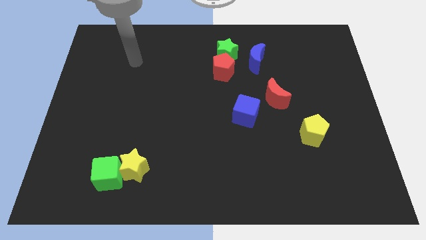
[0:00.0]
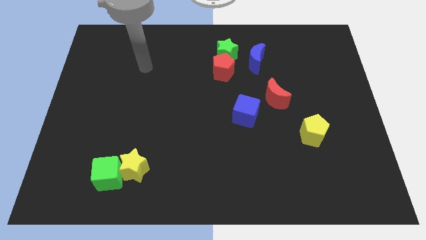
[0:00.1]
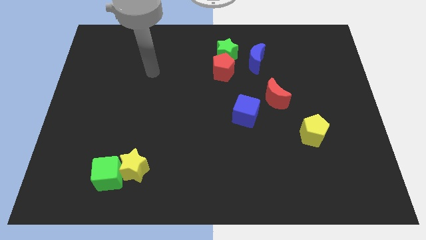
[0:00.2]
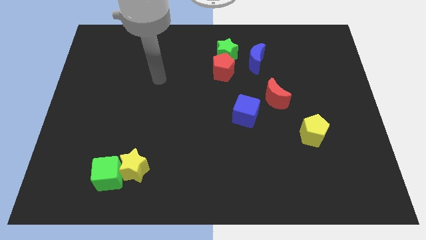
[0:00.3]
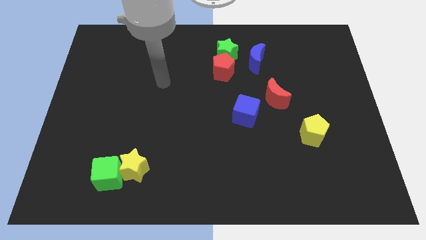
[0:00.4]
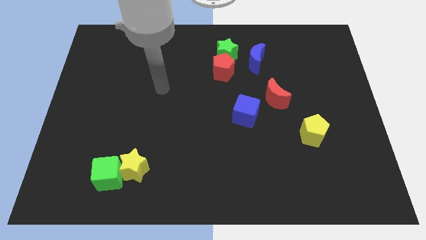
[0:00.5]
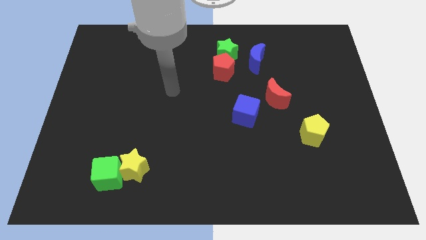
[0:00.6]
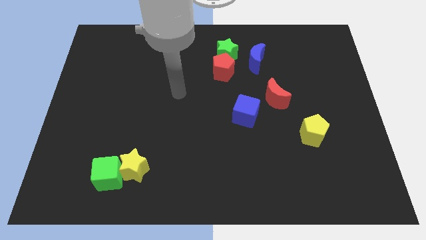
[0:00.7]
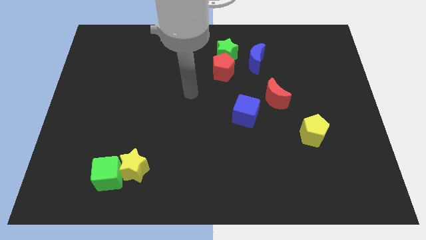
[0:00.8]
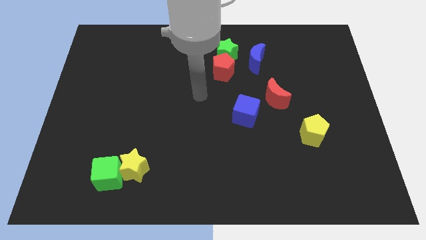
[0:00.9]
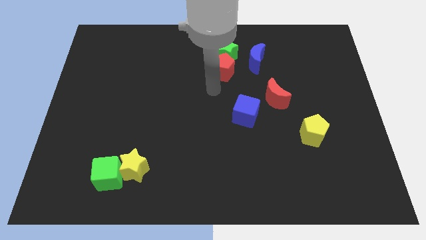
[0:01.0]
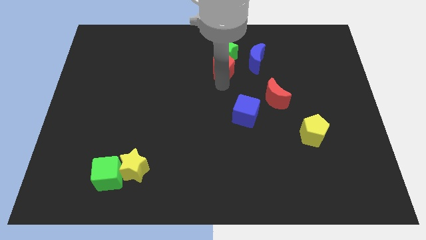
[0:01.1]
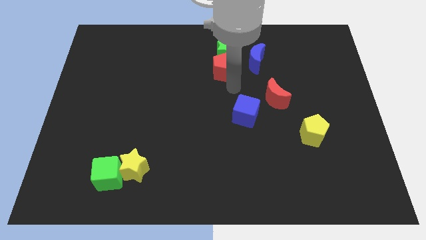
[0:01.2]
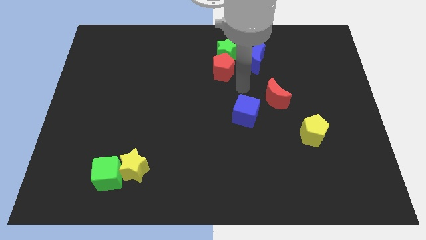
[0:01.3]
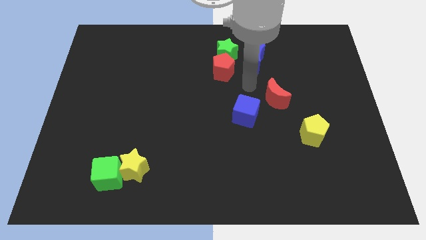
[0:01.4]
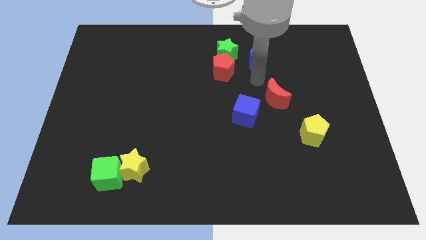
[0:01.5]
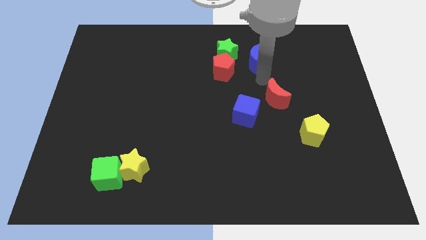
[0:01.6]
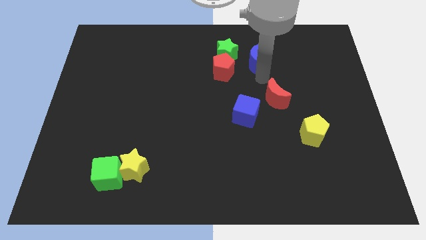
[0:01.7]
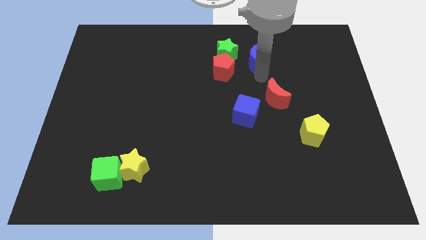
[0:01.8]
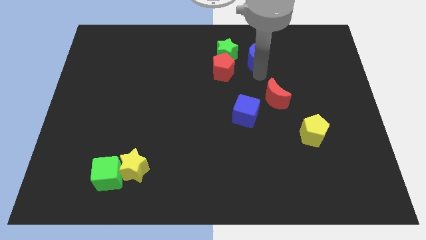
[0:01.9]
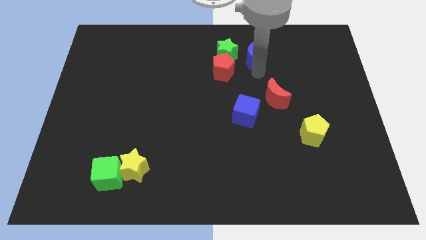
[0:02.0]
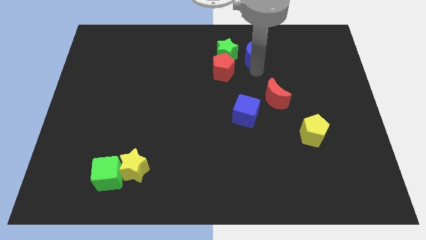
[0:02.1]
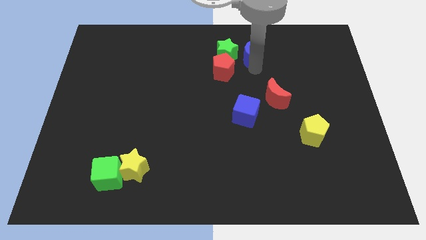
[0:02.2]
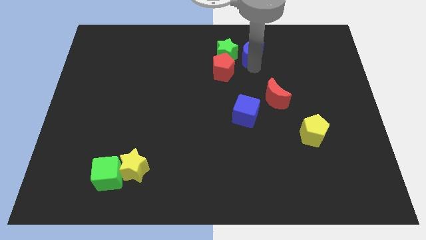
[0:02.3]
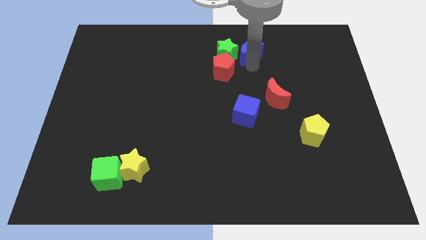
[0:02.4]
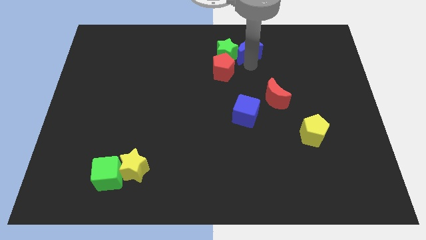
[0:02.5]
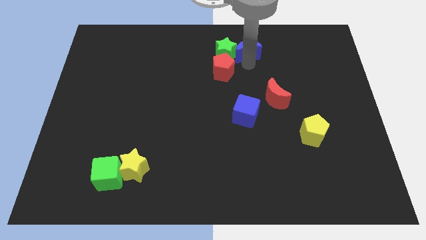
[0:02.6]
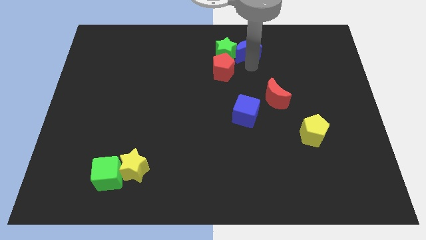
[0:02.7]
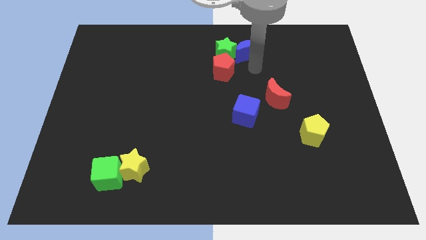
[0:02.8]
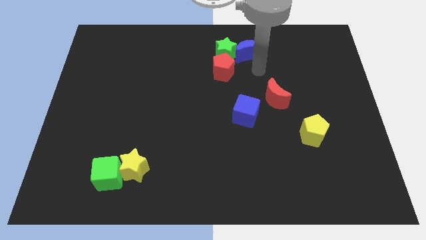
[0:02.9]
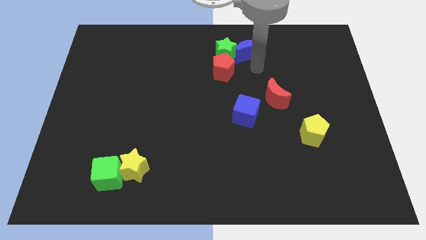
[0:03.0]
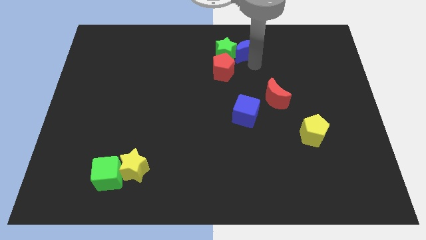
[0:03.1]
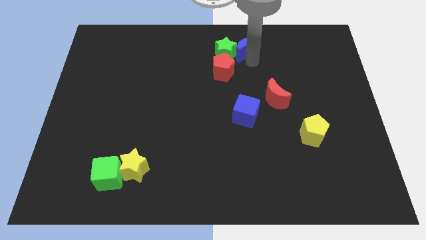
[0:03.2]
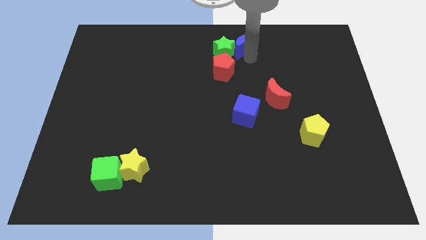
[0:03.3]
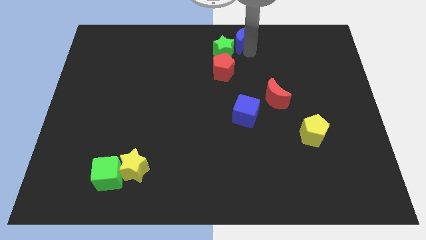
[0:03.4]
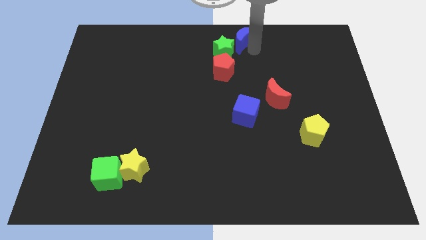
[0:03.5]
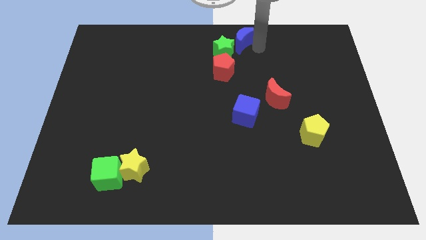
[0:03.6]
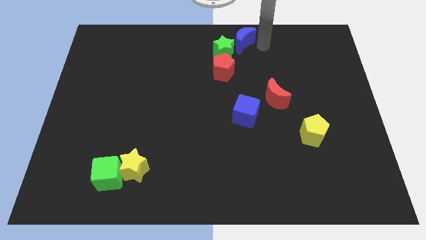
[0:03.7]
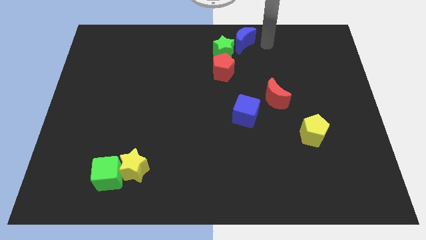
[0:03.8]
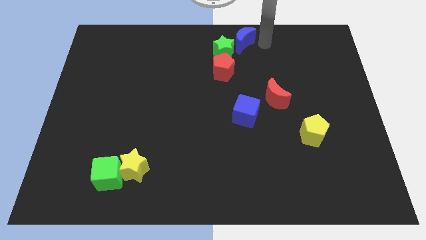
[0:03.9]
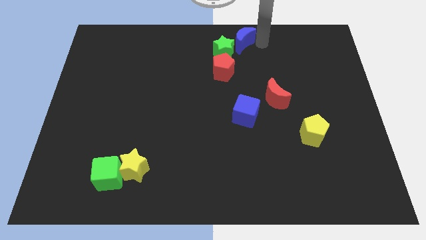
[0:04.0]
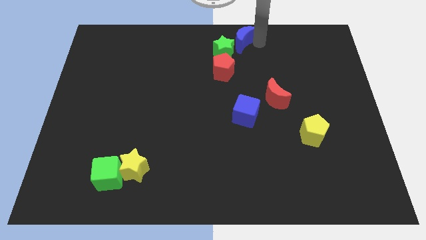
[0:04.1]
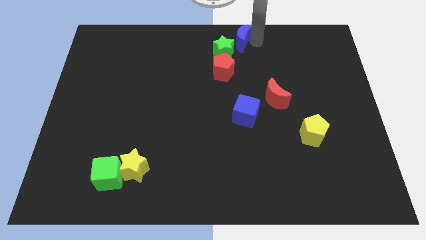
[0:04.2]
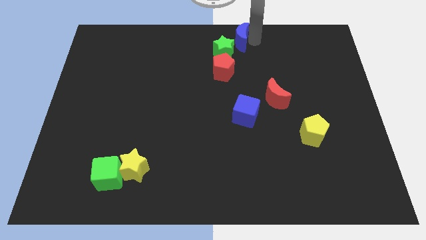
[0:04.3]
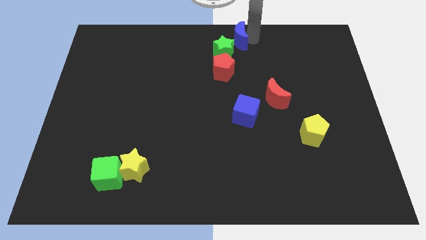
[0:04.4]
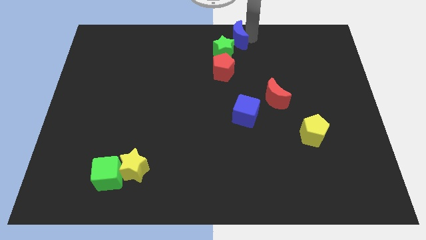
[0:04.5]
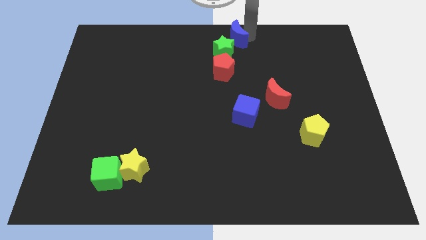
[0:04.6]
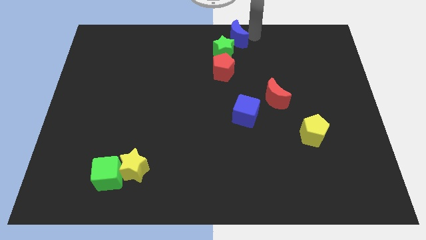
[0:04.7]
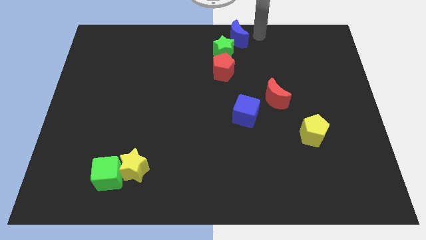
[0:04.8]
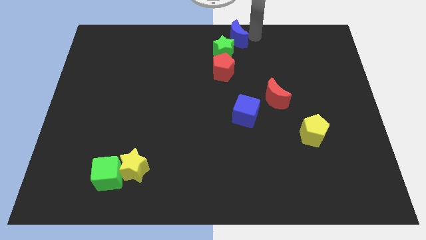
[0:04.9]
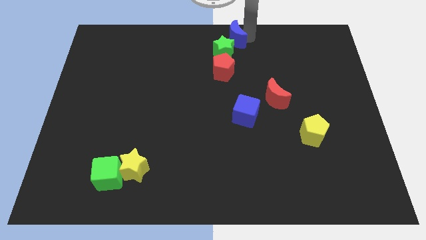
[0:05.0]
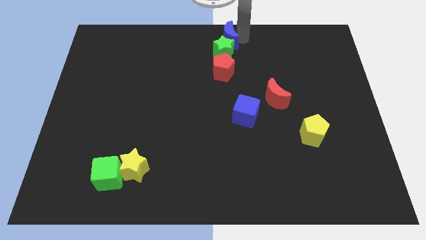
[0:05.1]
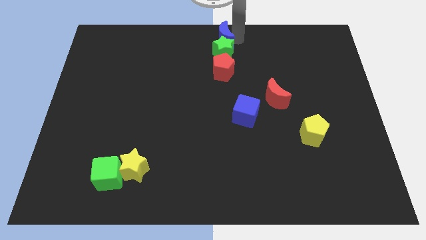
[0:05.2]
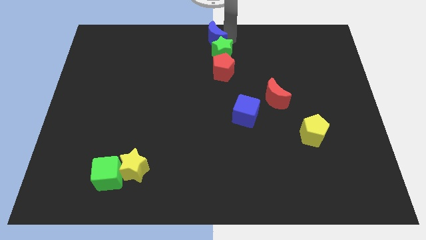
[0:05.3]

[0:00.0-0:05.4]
slightly move the blue moon to the left

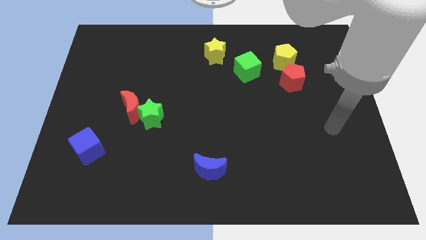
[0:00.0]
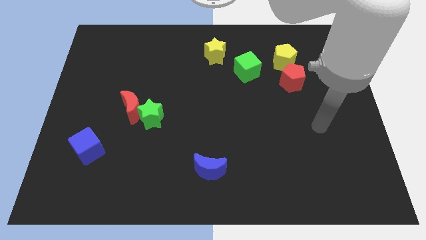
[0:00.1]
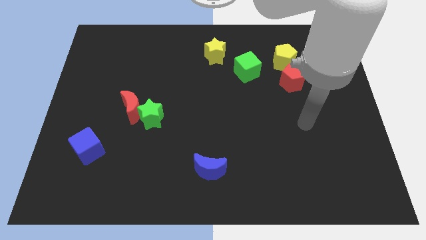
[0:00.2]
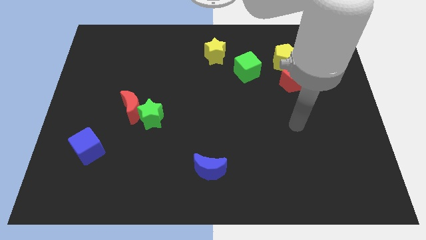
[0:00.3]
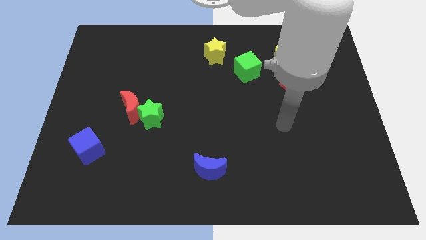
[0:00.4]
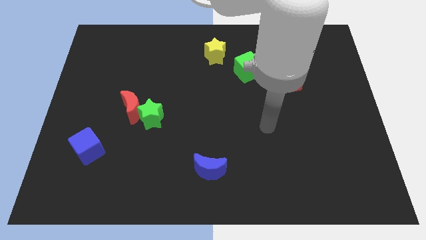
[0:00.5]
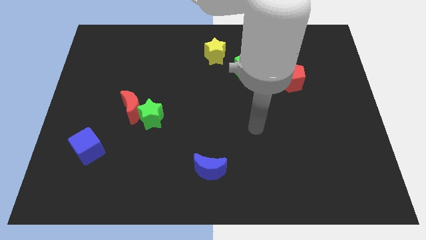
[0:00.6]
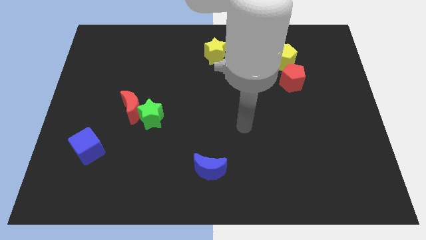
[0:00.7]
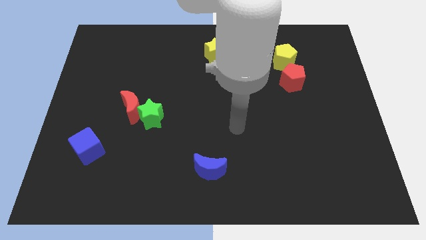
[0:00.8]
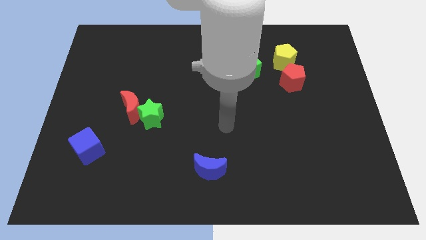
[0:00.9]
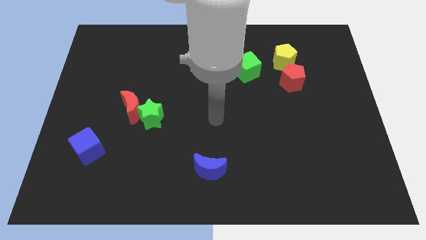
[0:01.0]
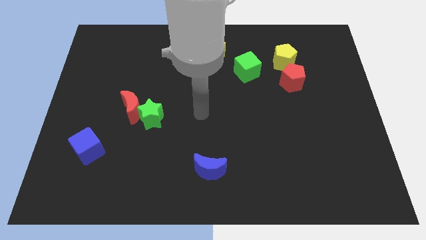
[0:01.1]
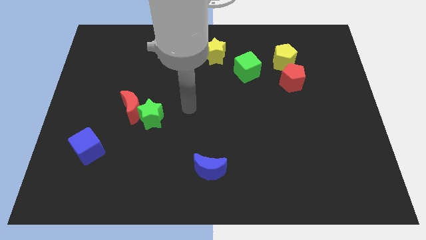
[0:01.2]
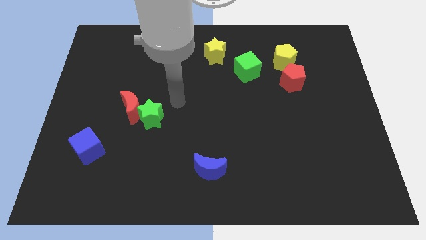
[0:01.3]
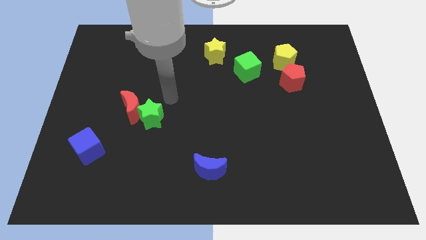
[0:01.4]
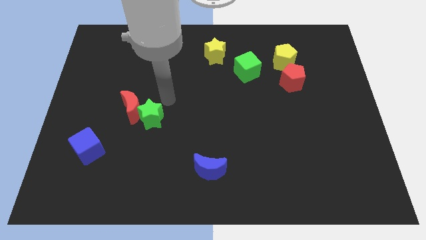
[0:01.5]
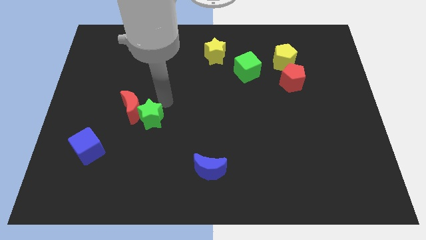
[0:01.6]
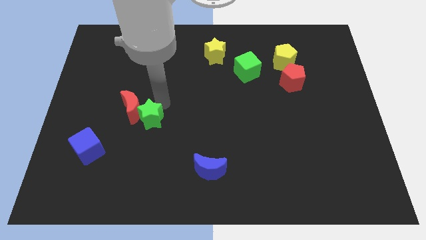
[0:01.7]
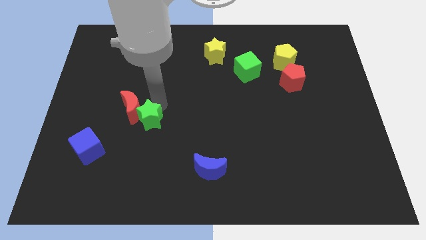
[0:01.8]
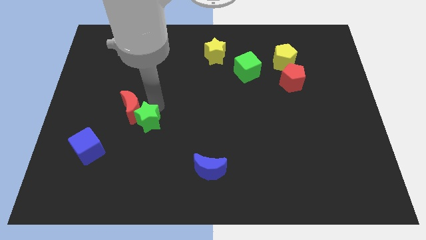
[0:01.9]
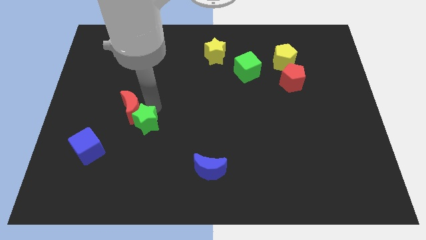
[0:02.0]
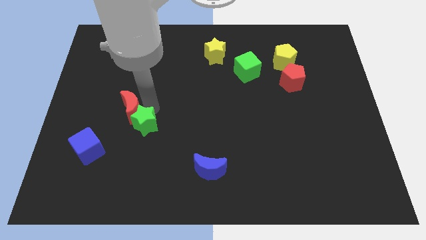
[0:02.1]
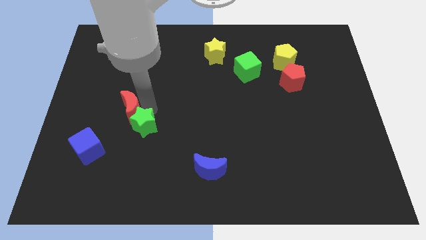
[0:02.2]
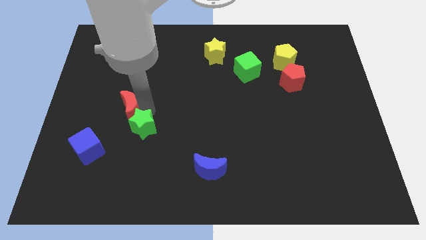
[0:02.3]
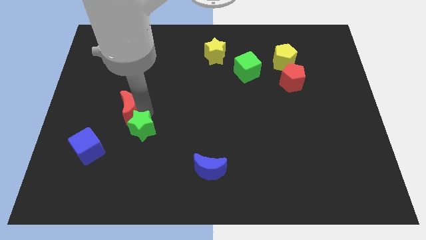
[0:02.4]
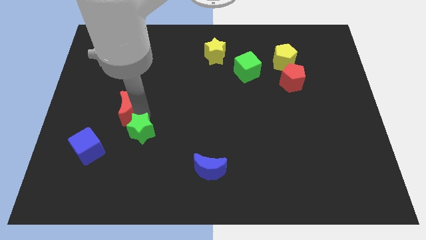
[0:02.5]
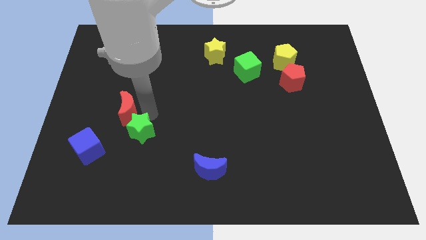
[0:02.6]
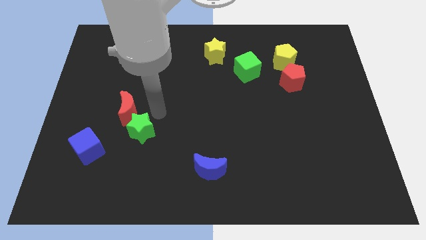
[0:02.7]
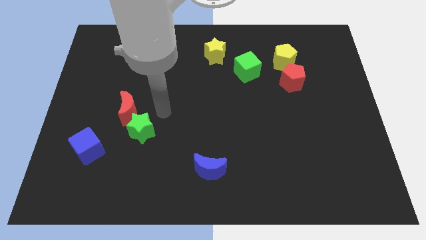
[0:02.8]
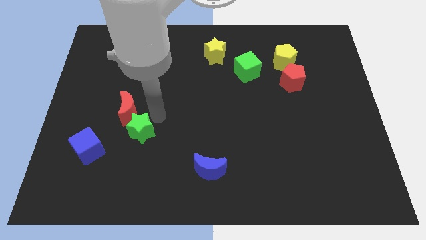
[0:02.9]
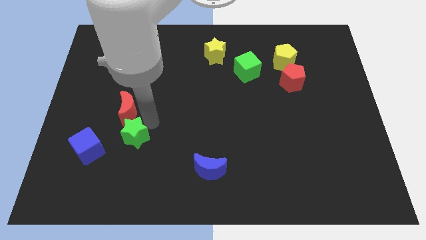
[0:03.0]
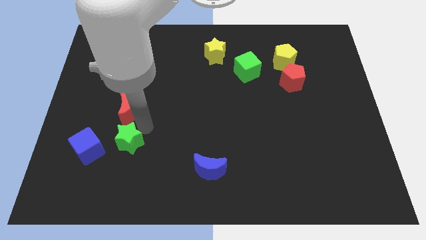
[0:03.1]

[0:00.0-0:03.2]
slightly move the green star down and left
